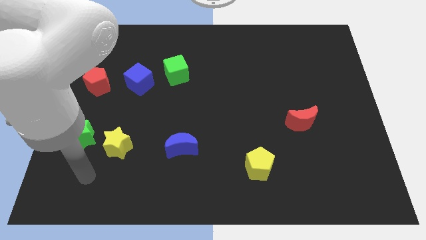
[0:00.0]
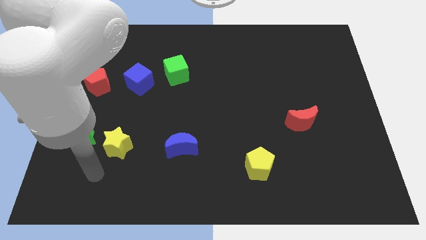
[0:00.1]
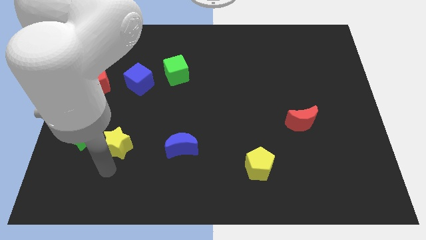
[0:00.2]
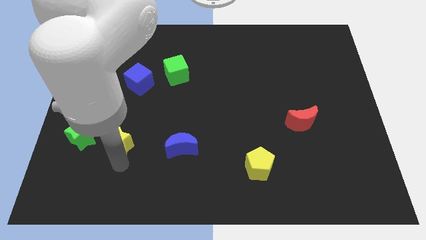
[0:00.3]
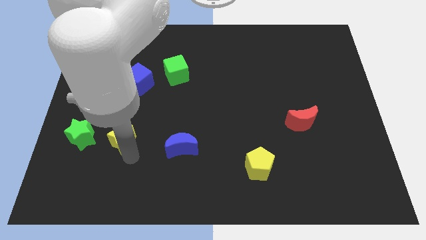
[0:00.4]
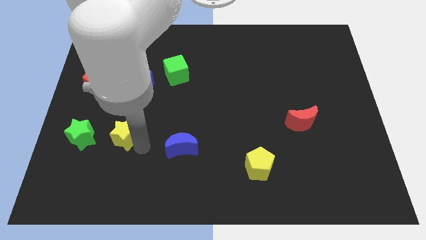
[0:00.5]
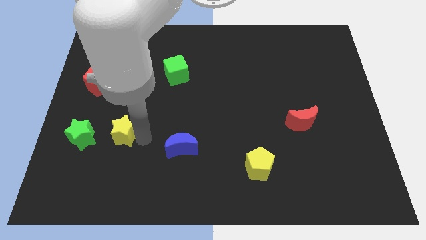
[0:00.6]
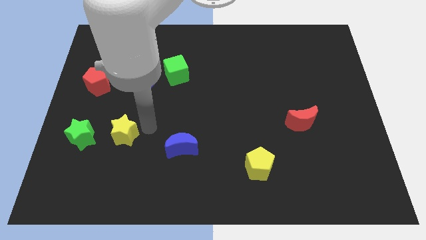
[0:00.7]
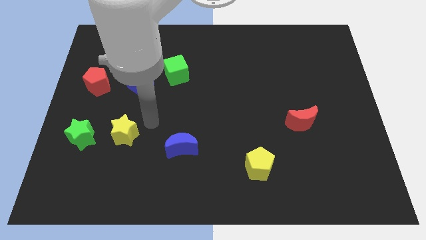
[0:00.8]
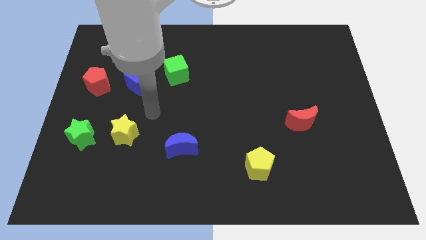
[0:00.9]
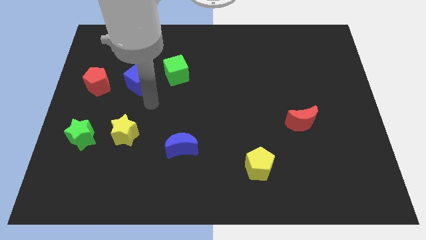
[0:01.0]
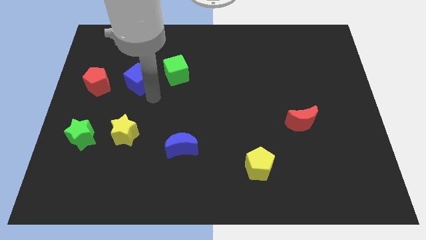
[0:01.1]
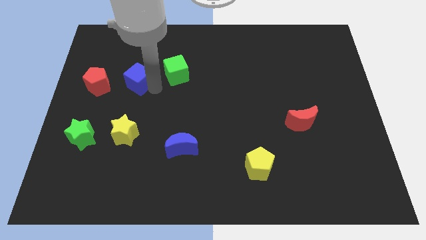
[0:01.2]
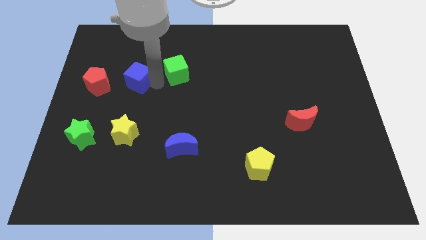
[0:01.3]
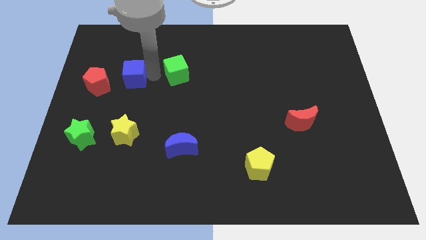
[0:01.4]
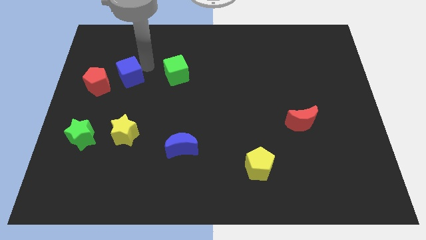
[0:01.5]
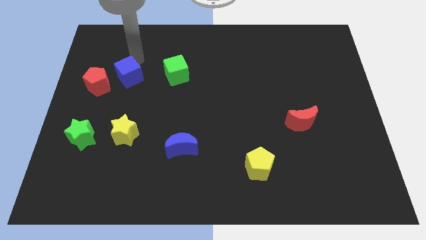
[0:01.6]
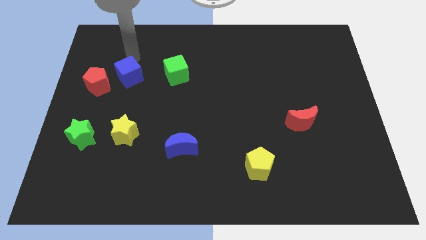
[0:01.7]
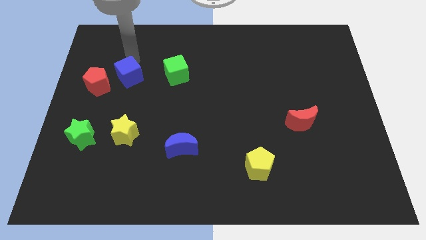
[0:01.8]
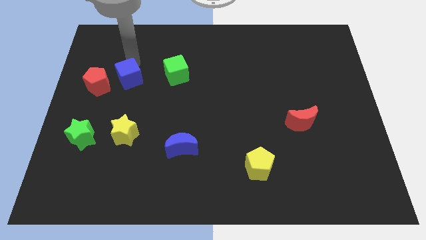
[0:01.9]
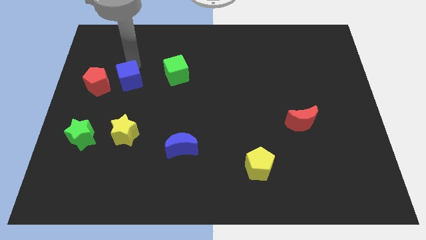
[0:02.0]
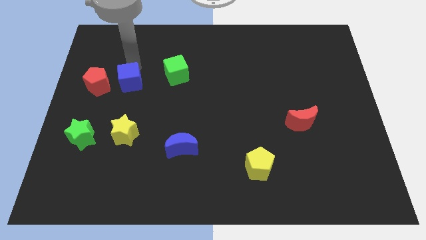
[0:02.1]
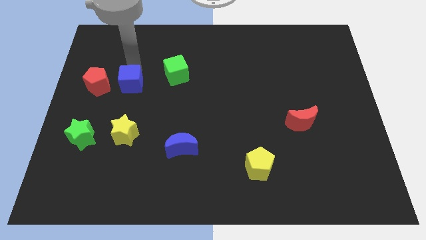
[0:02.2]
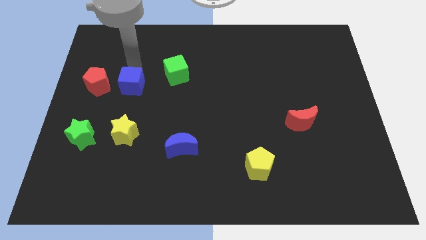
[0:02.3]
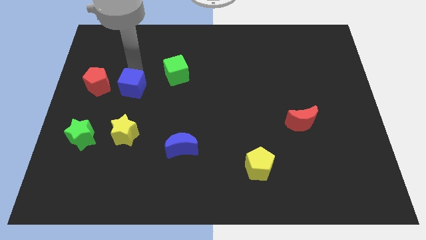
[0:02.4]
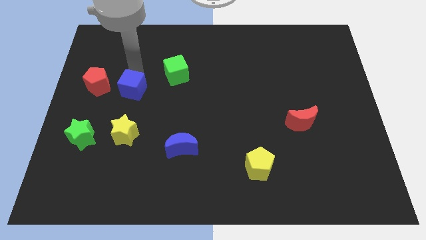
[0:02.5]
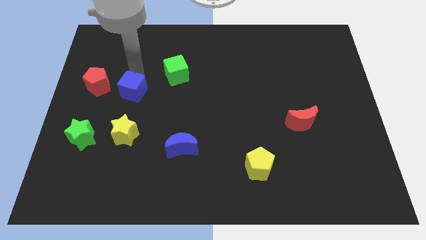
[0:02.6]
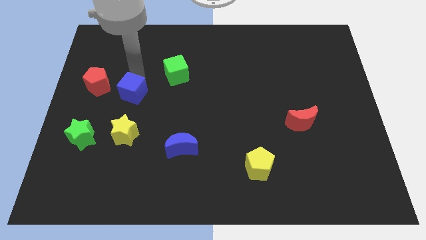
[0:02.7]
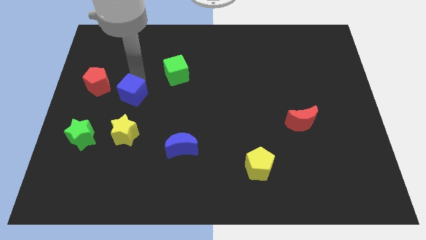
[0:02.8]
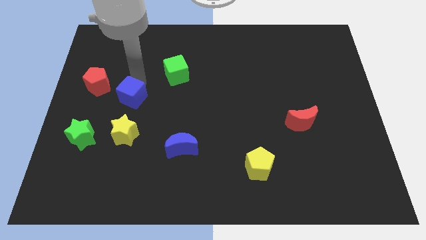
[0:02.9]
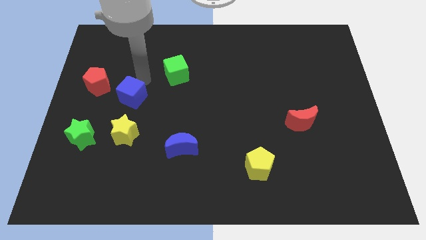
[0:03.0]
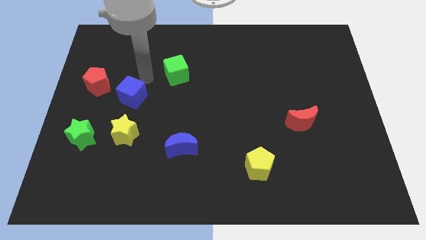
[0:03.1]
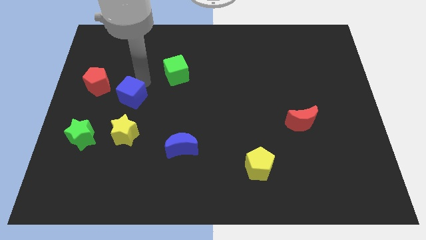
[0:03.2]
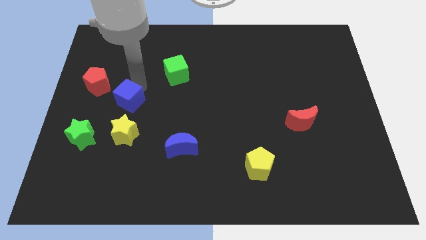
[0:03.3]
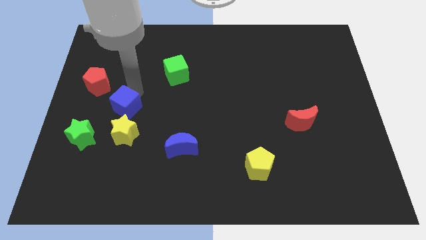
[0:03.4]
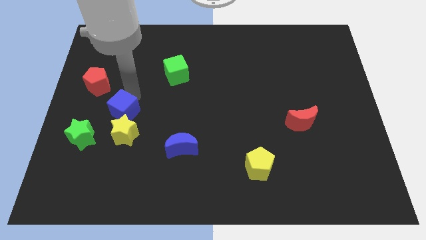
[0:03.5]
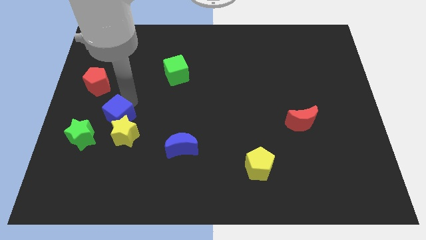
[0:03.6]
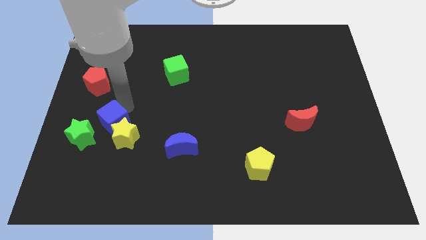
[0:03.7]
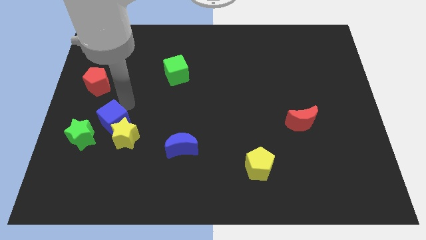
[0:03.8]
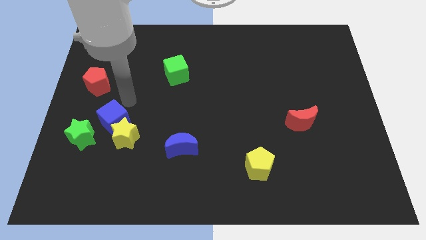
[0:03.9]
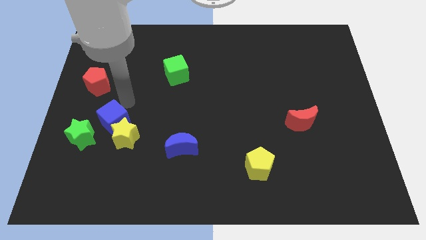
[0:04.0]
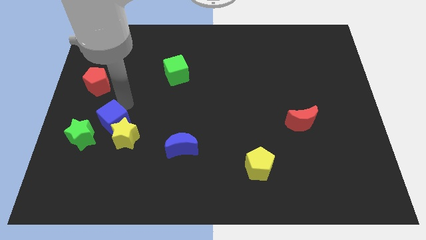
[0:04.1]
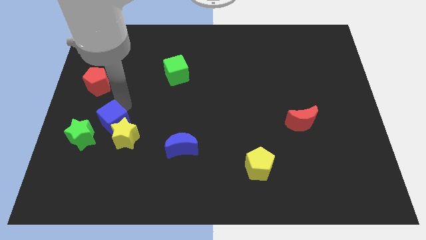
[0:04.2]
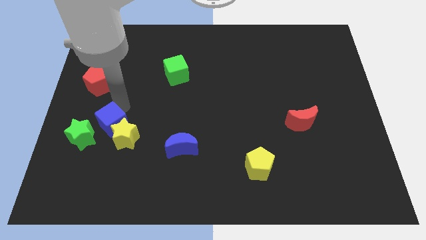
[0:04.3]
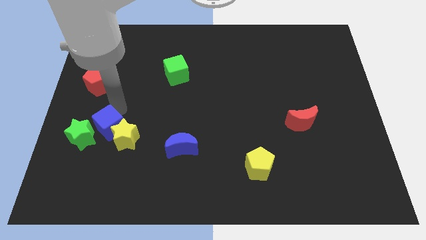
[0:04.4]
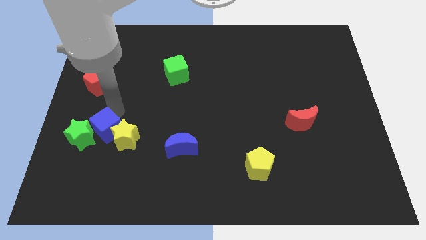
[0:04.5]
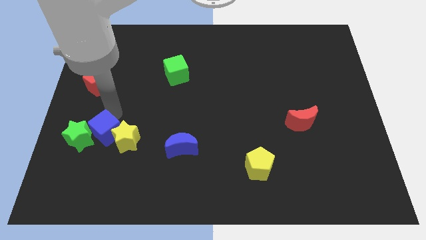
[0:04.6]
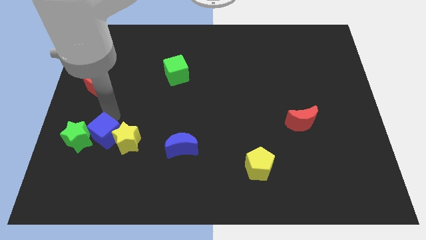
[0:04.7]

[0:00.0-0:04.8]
slide the blue cube to the bottom right side of the green star

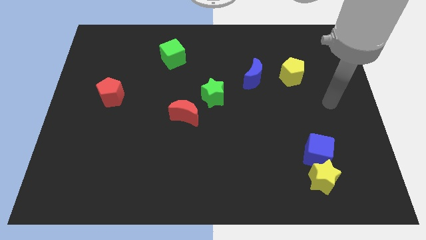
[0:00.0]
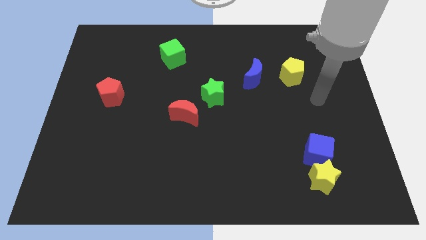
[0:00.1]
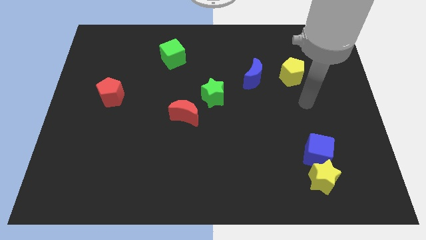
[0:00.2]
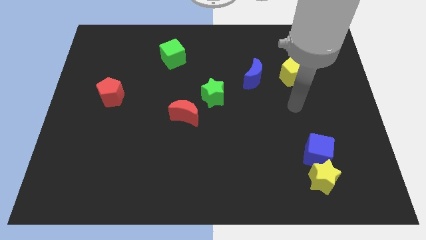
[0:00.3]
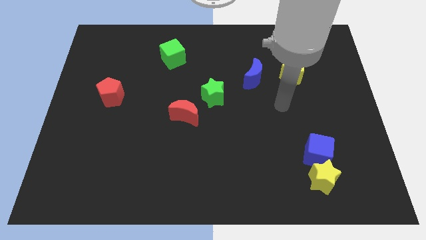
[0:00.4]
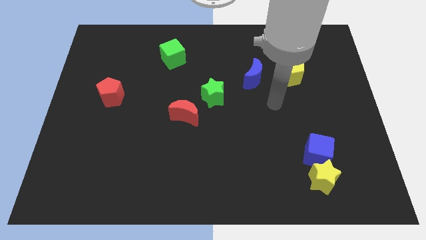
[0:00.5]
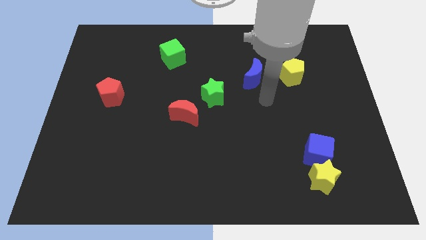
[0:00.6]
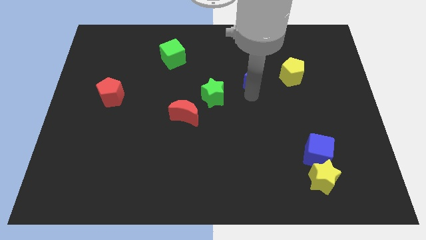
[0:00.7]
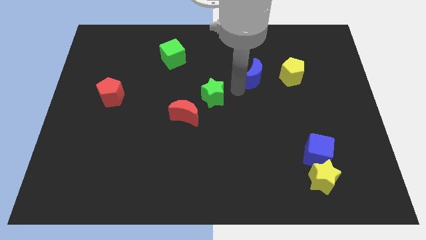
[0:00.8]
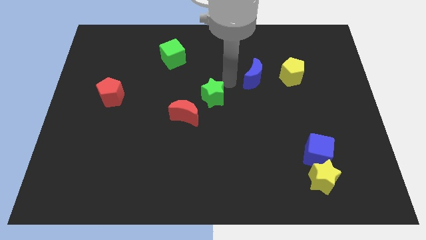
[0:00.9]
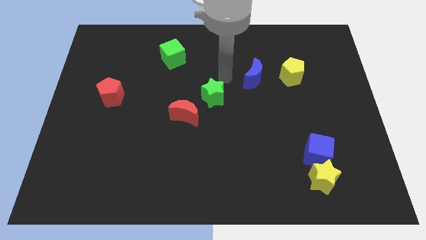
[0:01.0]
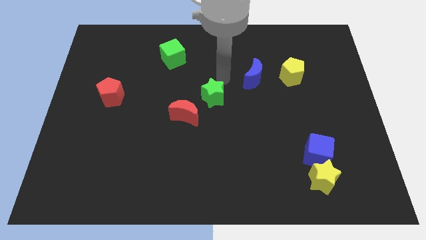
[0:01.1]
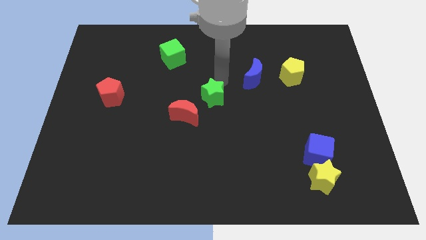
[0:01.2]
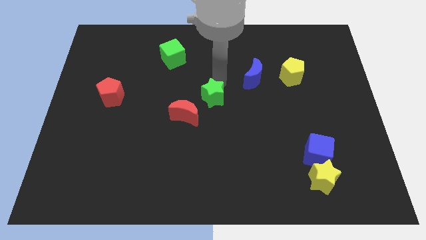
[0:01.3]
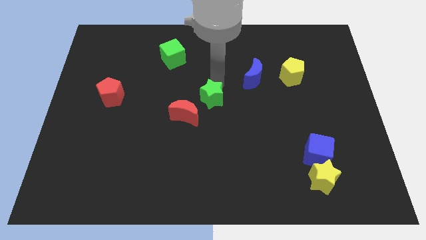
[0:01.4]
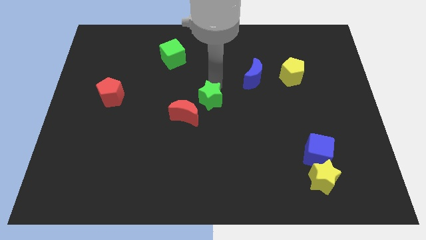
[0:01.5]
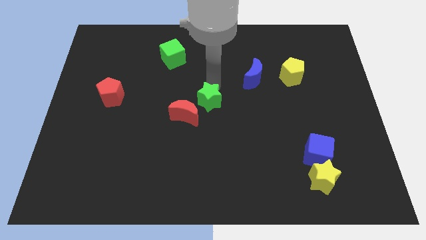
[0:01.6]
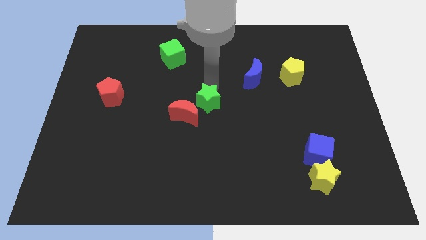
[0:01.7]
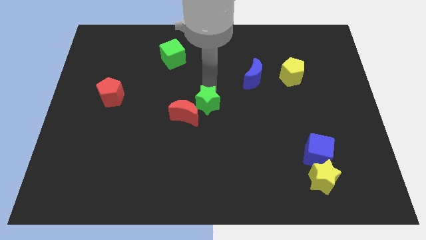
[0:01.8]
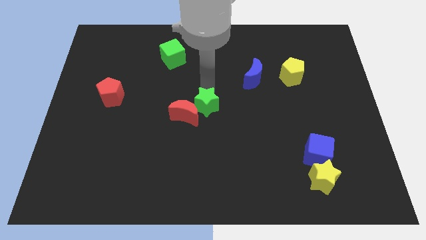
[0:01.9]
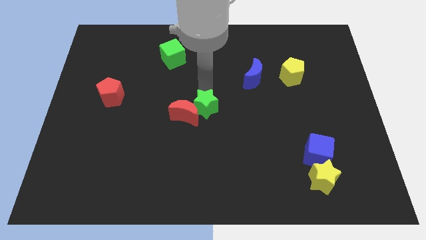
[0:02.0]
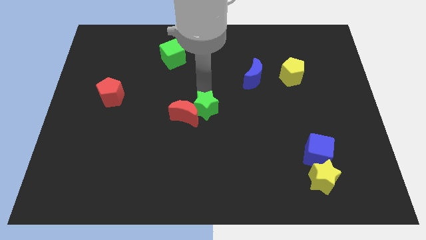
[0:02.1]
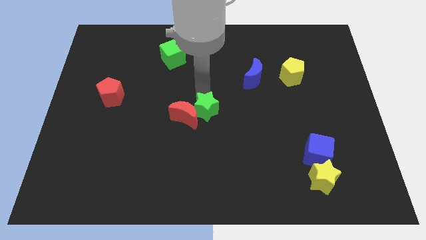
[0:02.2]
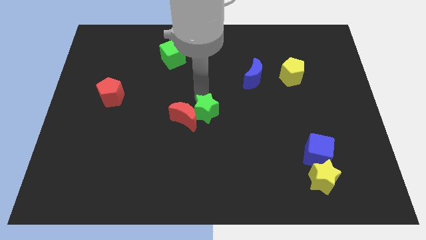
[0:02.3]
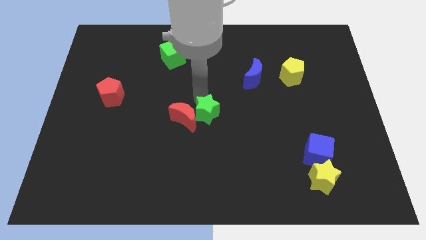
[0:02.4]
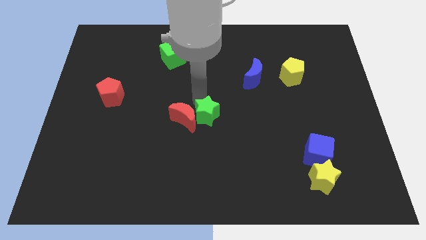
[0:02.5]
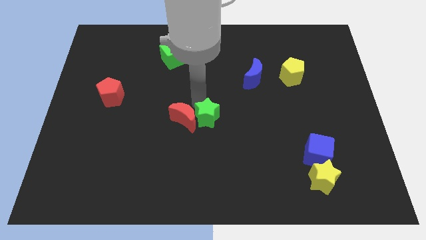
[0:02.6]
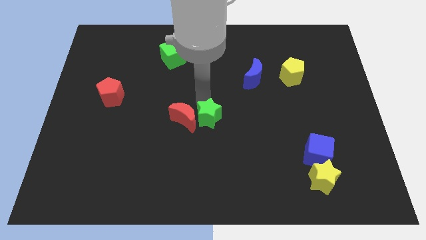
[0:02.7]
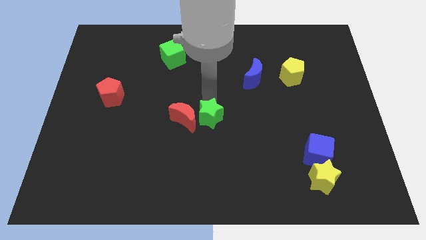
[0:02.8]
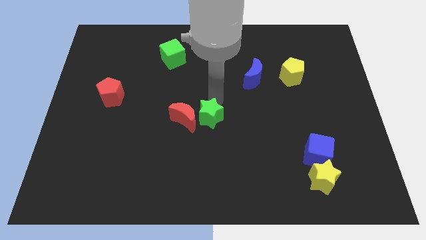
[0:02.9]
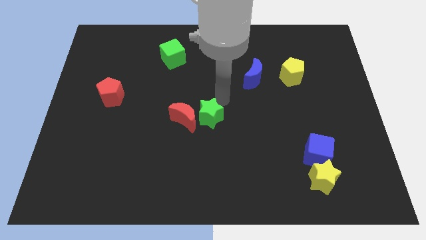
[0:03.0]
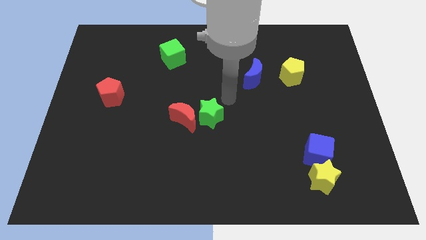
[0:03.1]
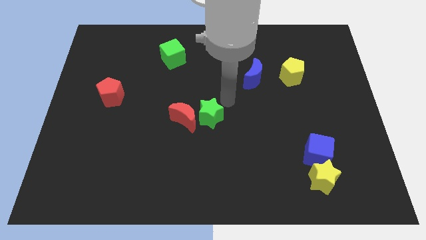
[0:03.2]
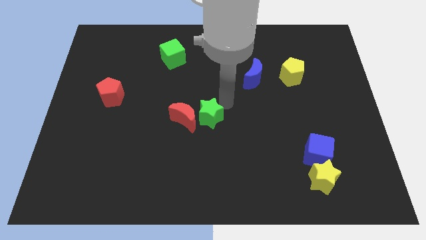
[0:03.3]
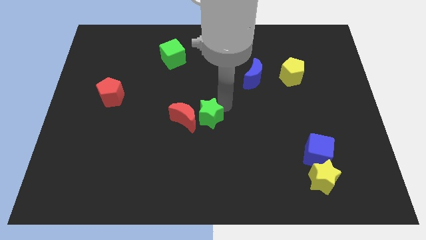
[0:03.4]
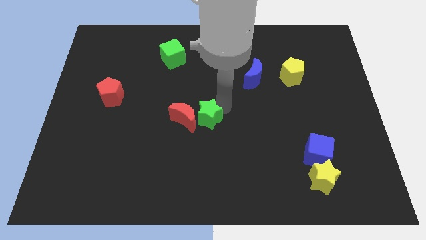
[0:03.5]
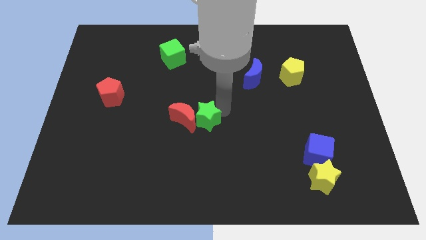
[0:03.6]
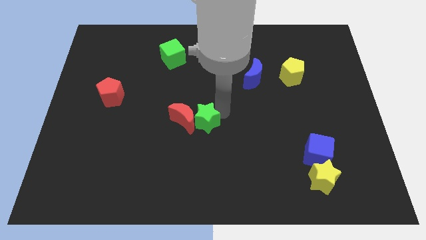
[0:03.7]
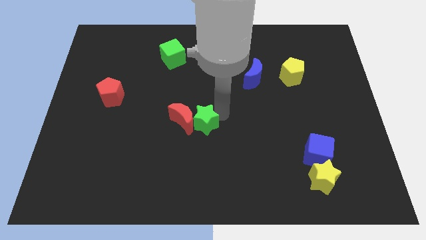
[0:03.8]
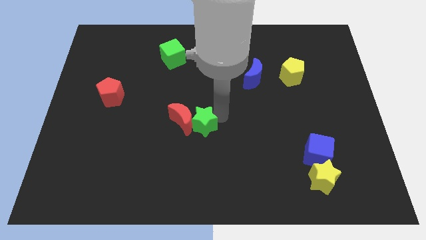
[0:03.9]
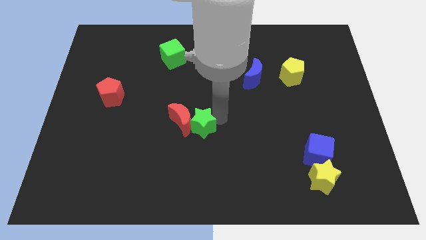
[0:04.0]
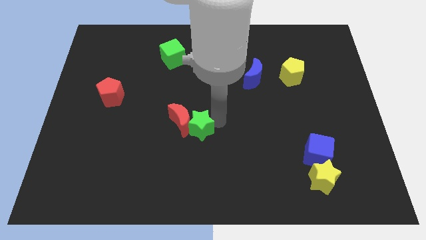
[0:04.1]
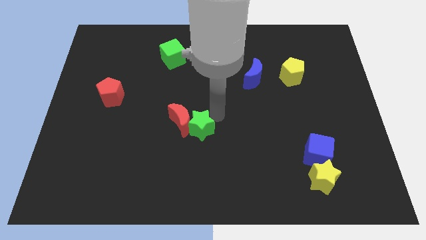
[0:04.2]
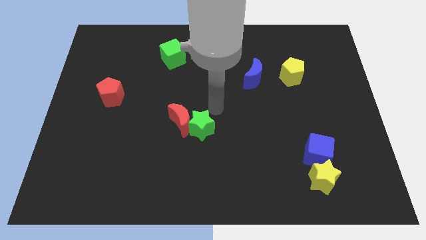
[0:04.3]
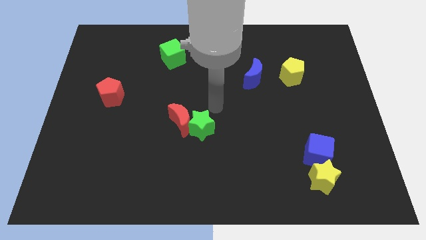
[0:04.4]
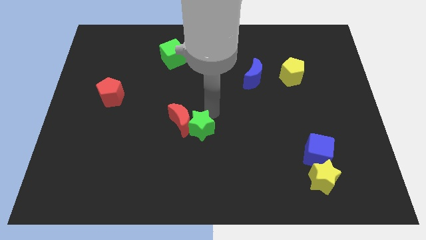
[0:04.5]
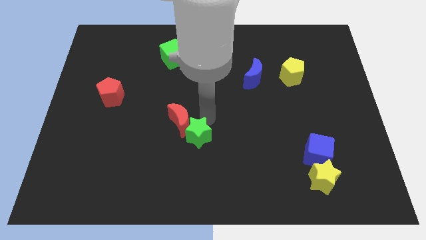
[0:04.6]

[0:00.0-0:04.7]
slide the green star below the red moon
